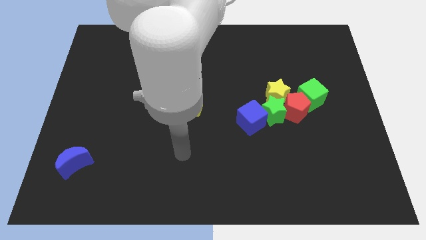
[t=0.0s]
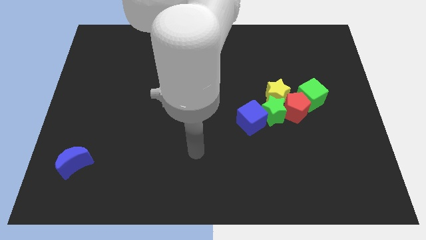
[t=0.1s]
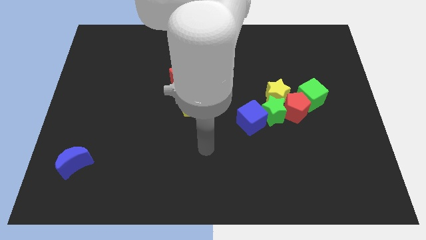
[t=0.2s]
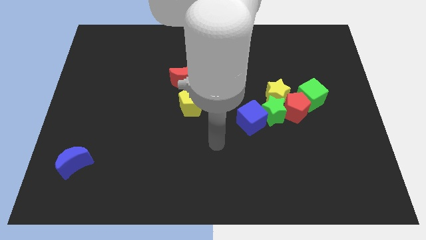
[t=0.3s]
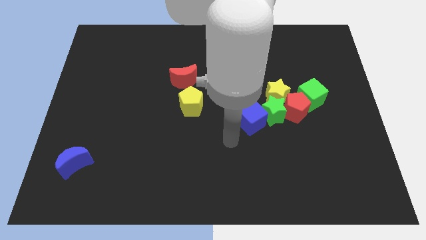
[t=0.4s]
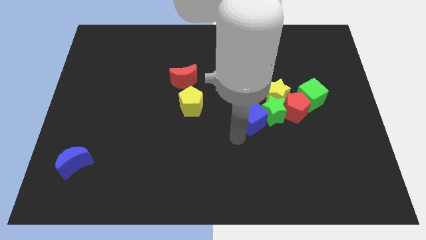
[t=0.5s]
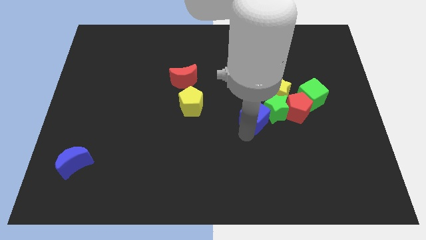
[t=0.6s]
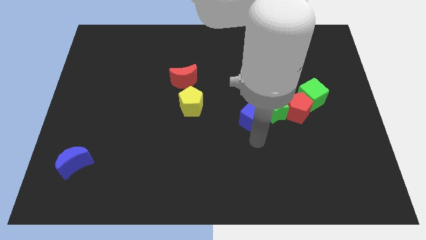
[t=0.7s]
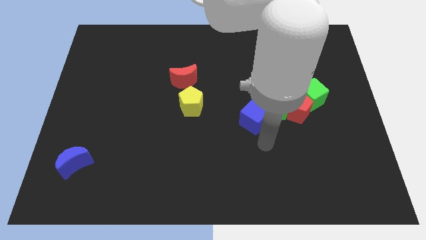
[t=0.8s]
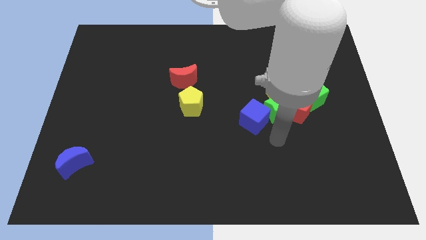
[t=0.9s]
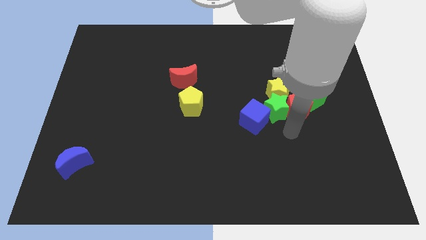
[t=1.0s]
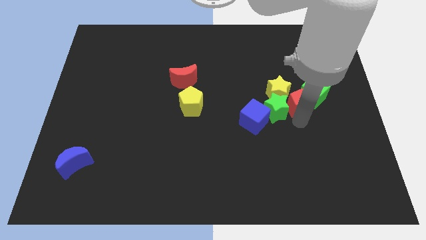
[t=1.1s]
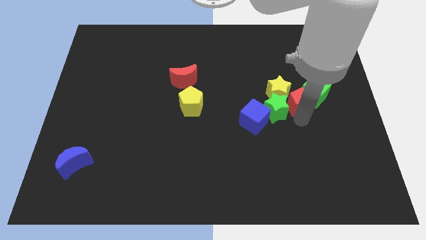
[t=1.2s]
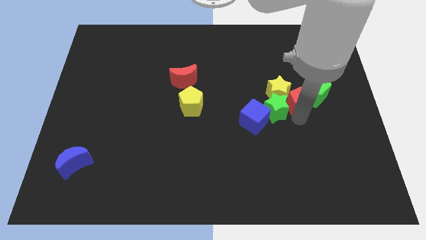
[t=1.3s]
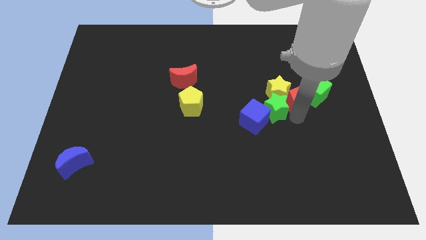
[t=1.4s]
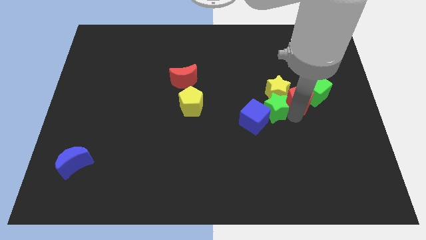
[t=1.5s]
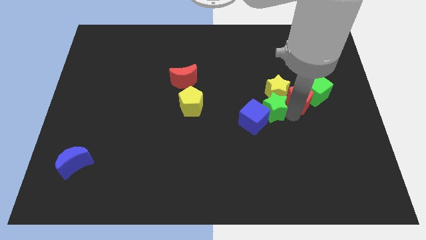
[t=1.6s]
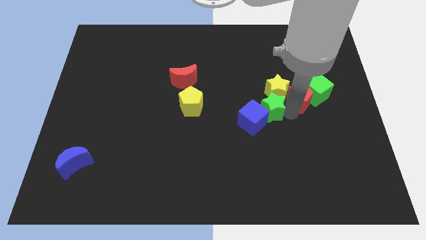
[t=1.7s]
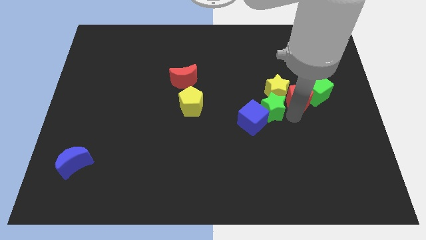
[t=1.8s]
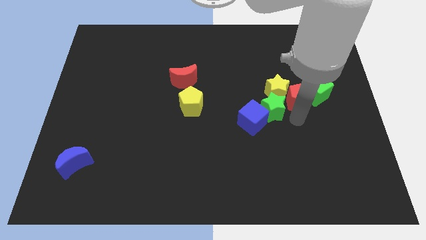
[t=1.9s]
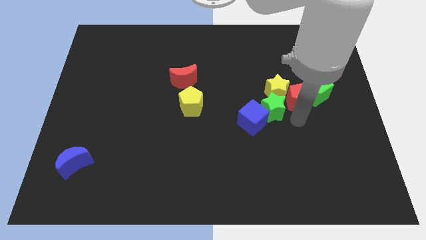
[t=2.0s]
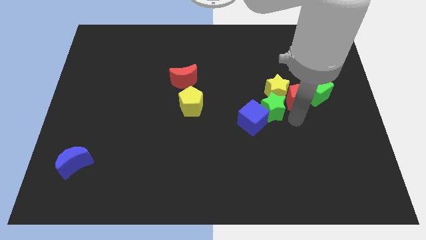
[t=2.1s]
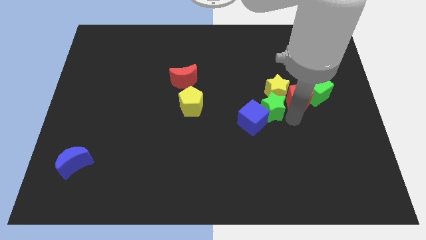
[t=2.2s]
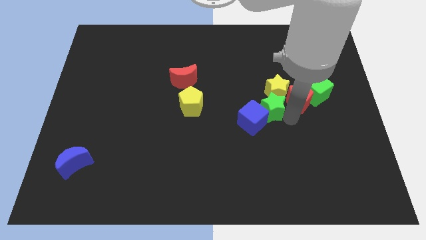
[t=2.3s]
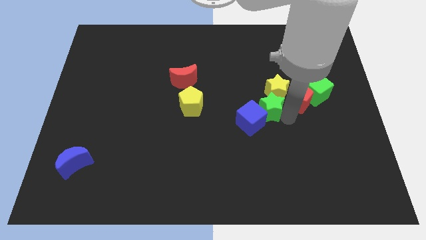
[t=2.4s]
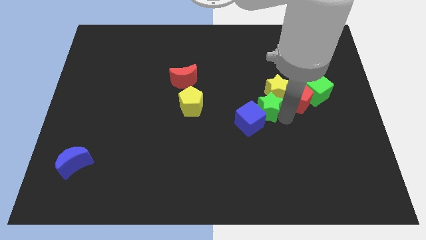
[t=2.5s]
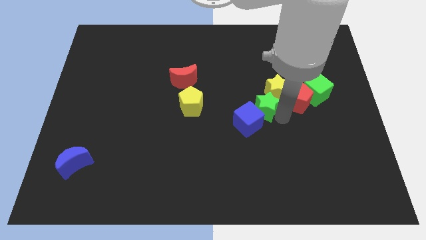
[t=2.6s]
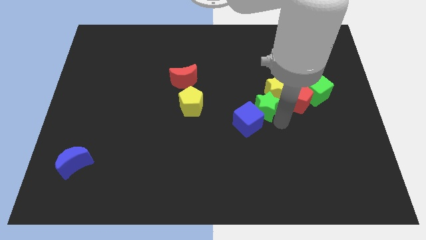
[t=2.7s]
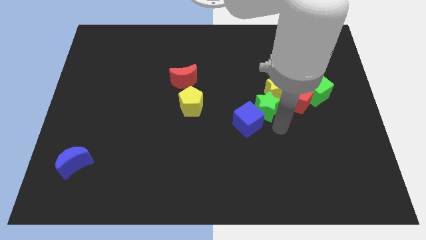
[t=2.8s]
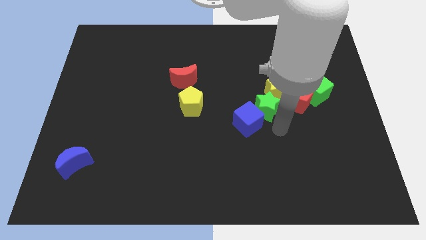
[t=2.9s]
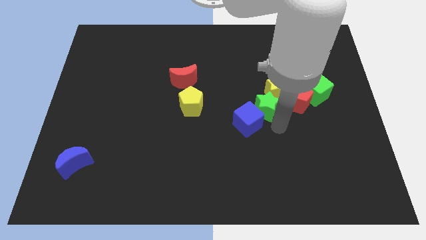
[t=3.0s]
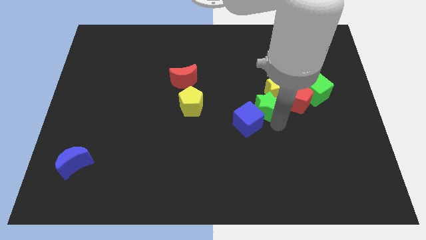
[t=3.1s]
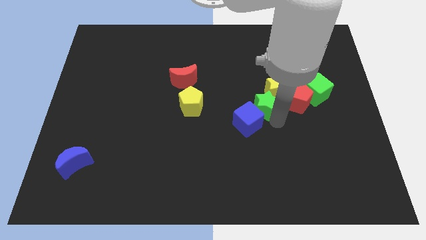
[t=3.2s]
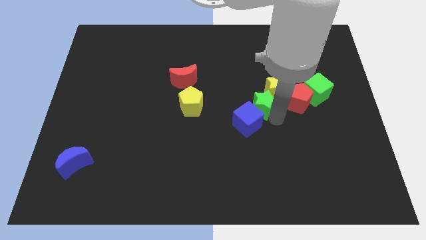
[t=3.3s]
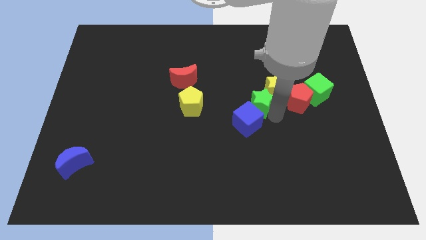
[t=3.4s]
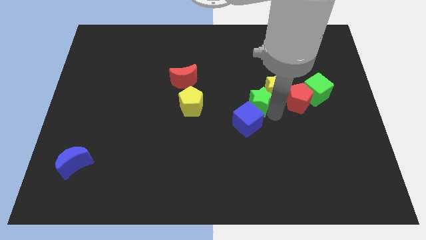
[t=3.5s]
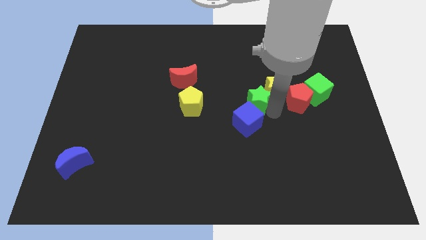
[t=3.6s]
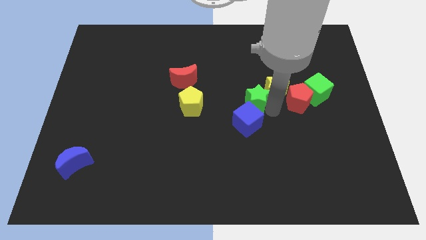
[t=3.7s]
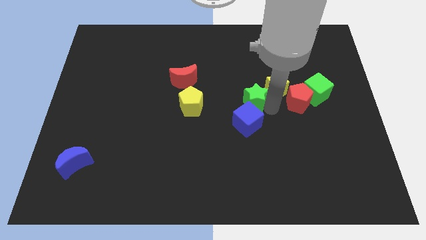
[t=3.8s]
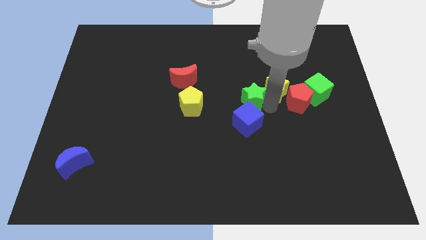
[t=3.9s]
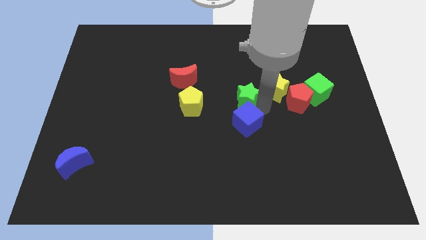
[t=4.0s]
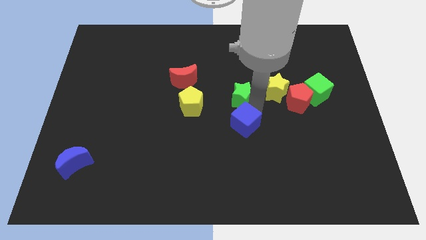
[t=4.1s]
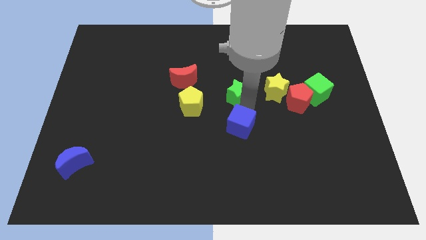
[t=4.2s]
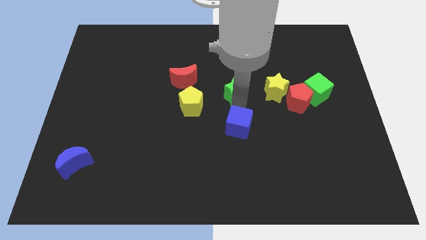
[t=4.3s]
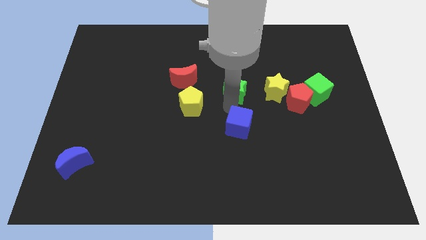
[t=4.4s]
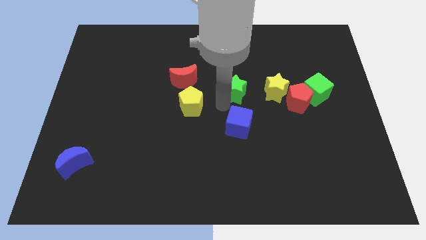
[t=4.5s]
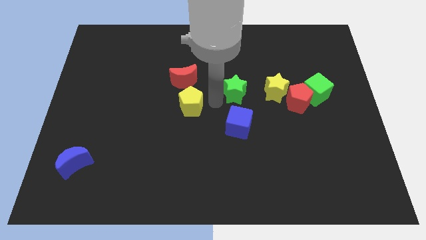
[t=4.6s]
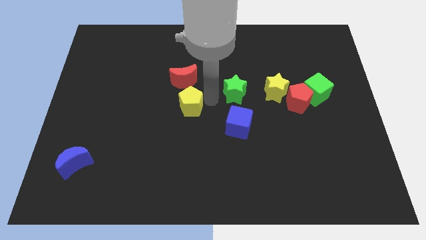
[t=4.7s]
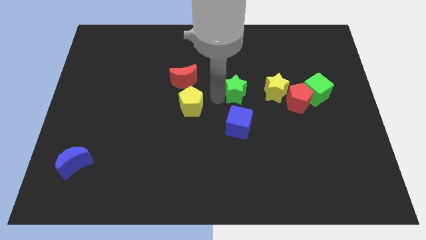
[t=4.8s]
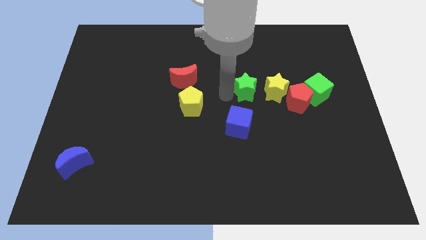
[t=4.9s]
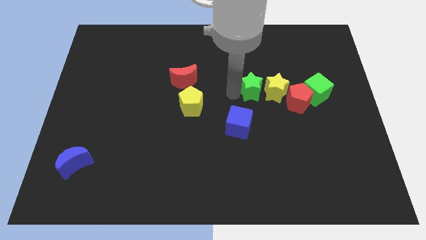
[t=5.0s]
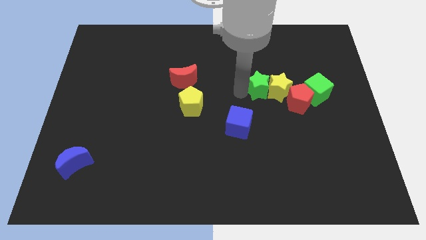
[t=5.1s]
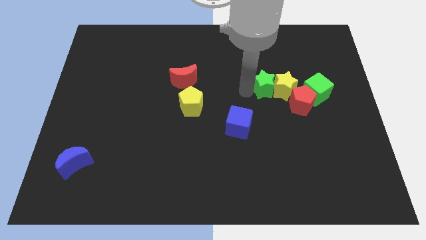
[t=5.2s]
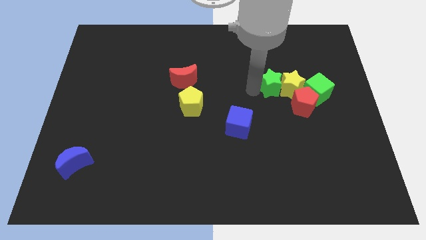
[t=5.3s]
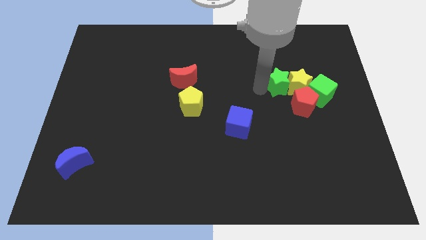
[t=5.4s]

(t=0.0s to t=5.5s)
push the green star somewhat diagonally up and right

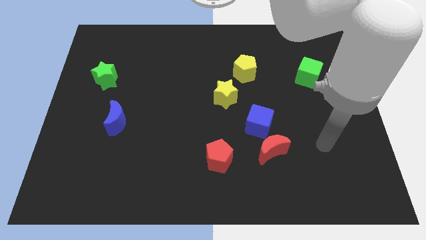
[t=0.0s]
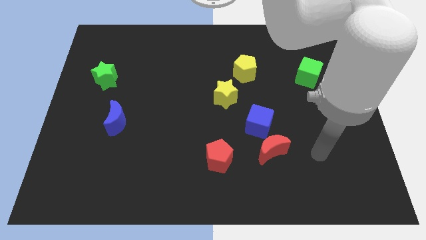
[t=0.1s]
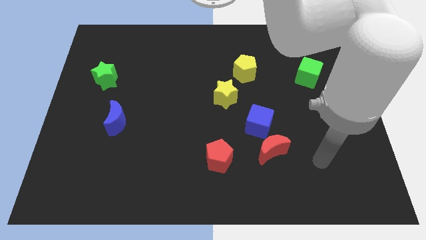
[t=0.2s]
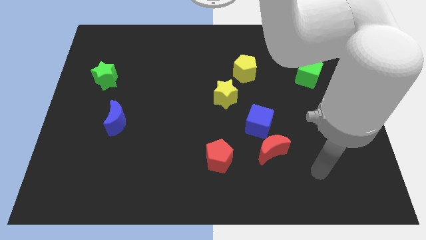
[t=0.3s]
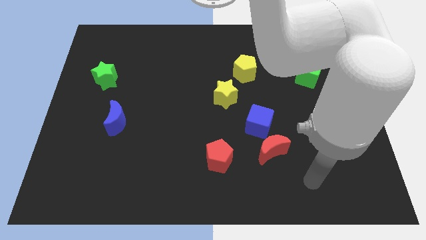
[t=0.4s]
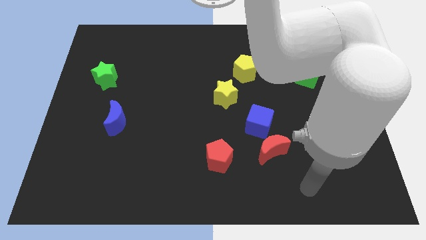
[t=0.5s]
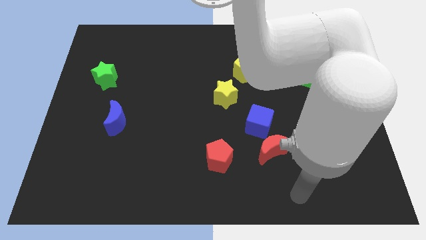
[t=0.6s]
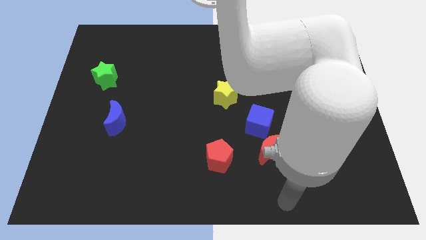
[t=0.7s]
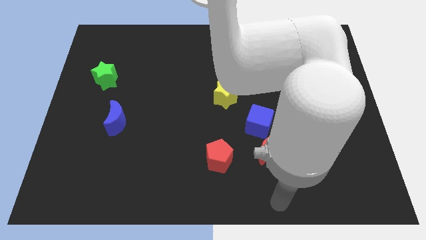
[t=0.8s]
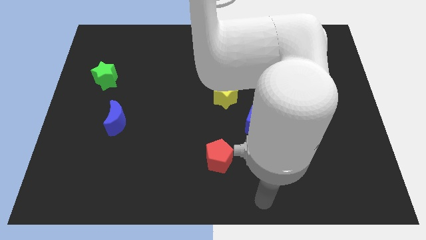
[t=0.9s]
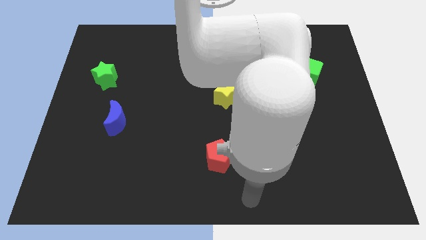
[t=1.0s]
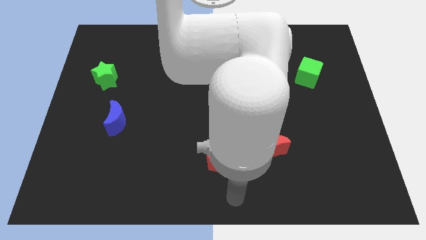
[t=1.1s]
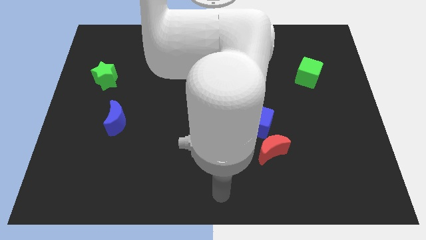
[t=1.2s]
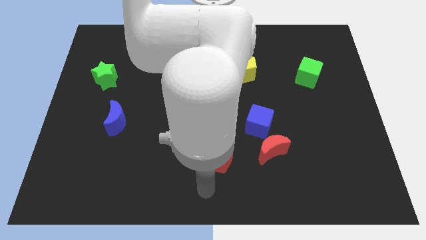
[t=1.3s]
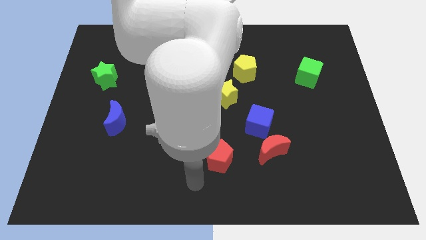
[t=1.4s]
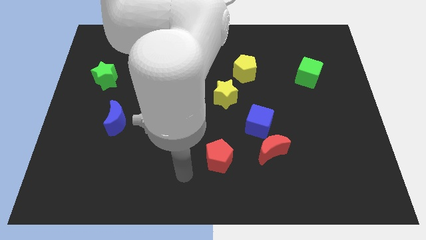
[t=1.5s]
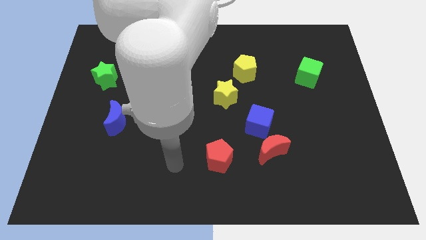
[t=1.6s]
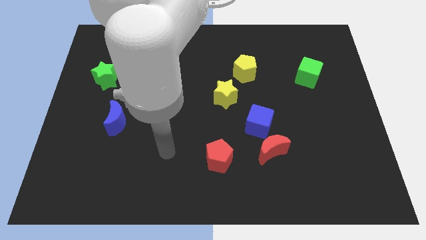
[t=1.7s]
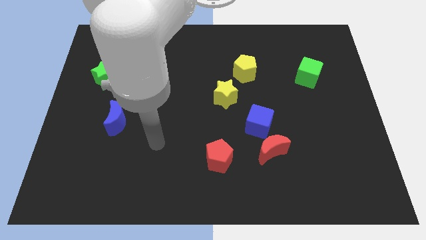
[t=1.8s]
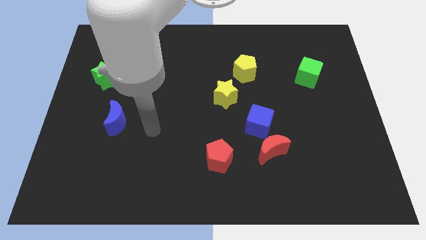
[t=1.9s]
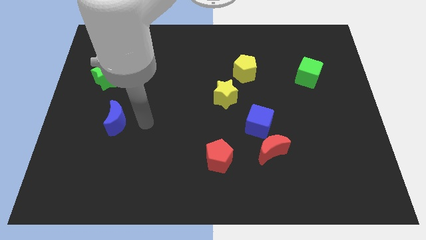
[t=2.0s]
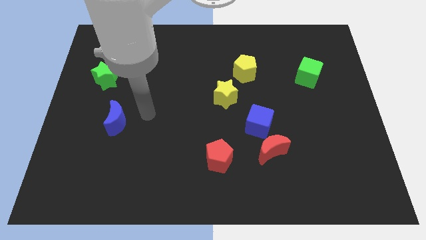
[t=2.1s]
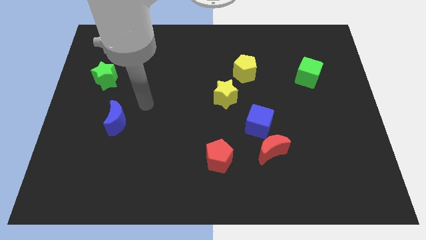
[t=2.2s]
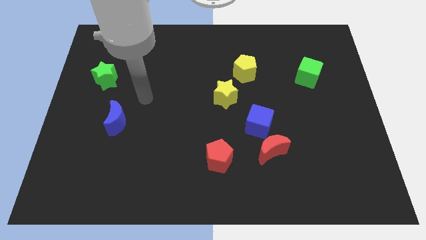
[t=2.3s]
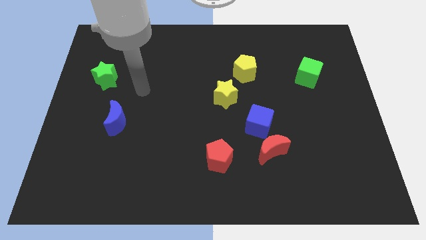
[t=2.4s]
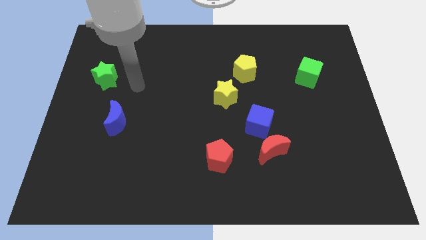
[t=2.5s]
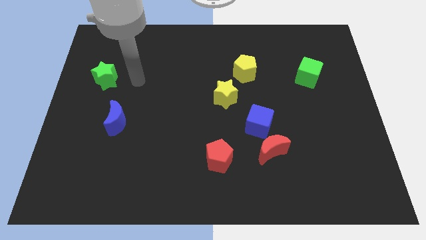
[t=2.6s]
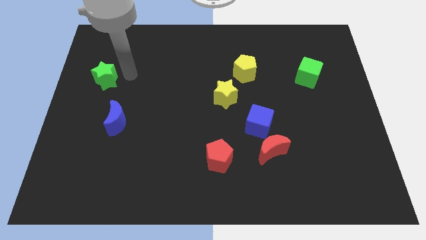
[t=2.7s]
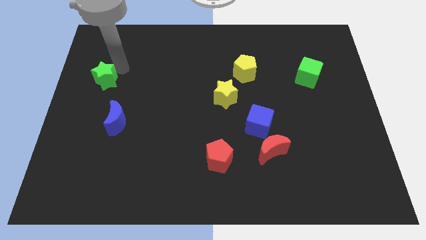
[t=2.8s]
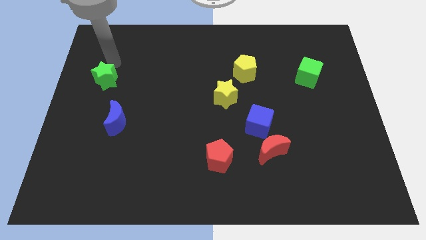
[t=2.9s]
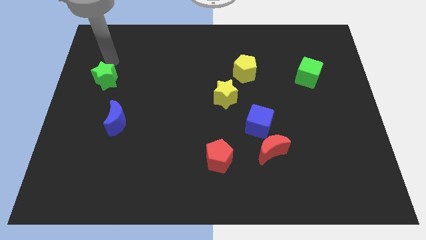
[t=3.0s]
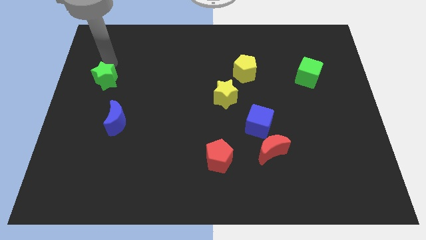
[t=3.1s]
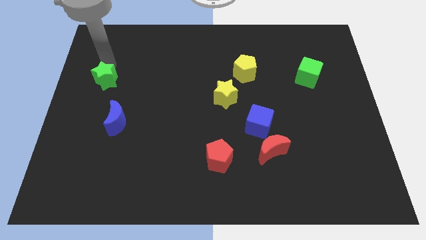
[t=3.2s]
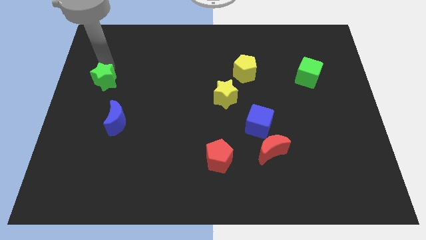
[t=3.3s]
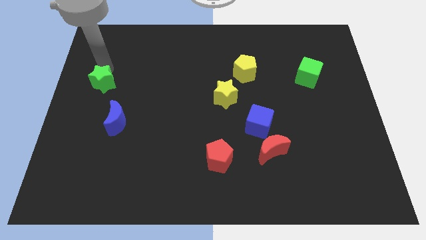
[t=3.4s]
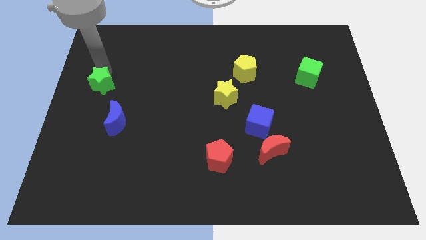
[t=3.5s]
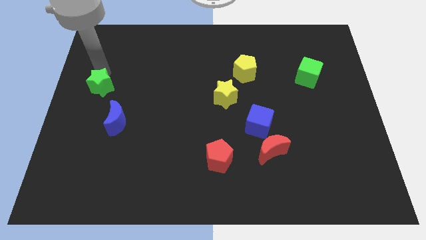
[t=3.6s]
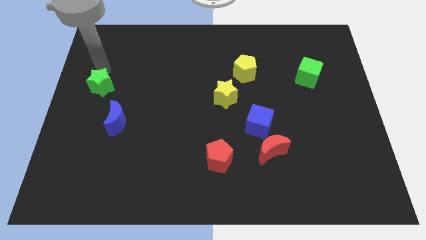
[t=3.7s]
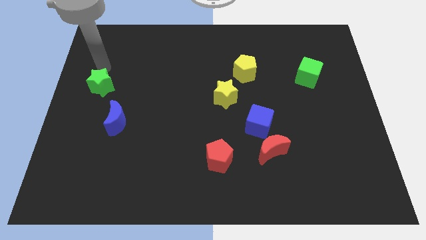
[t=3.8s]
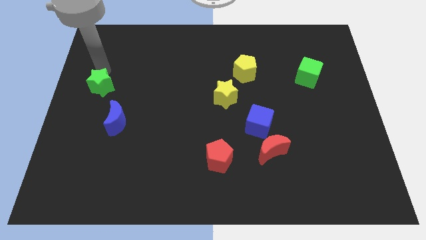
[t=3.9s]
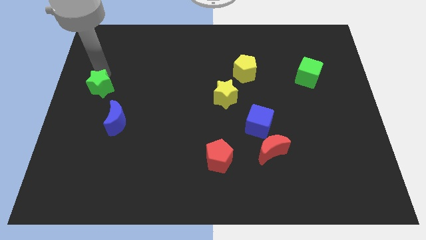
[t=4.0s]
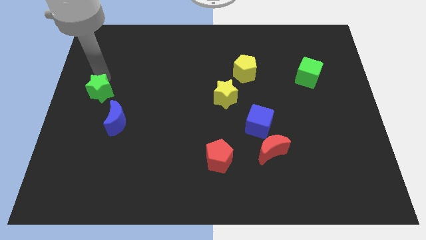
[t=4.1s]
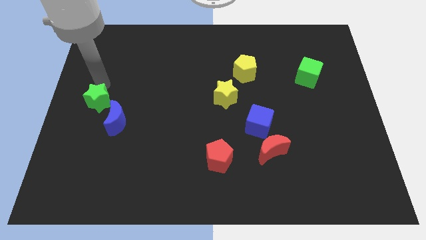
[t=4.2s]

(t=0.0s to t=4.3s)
push the green star a bit down
